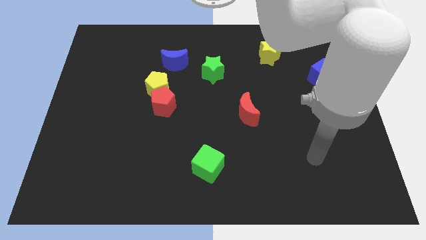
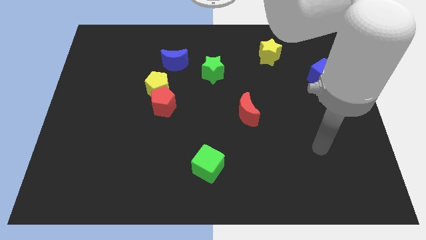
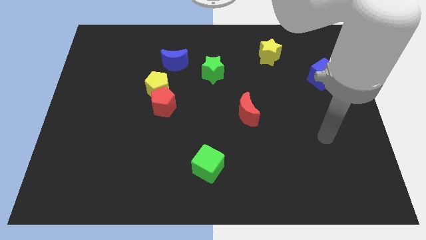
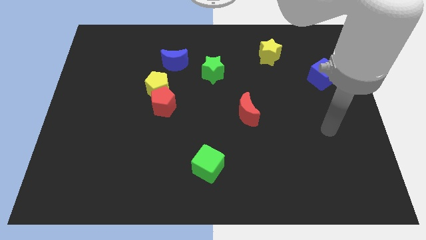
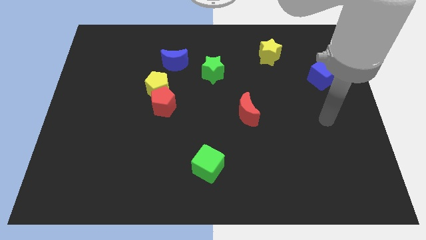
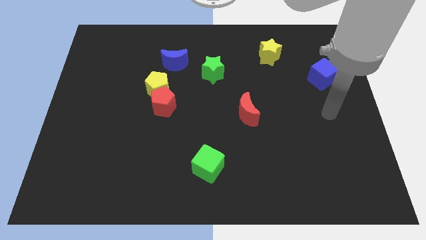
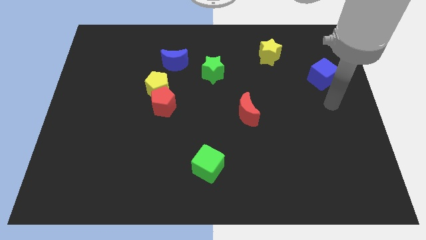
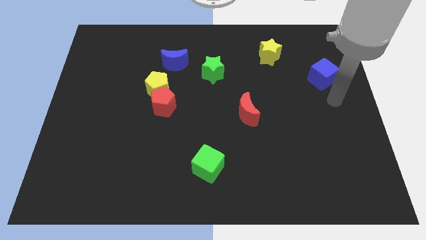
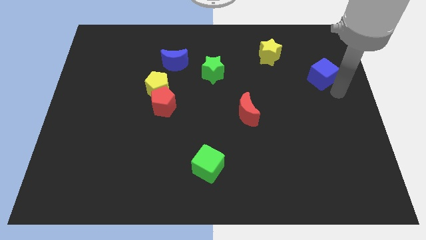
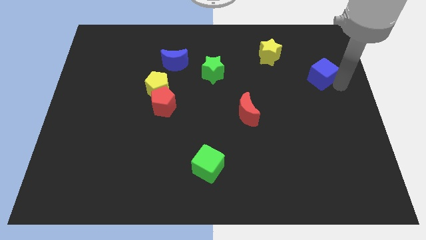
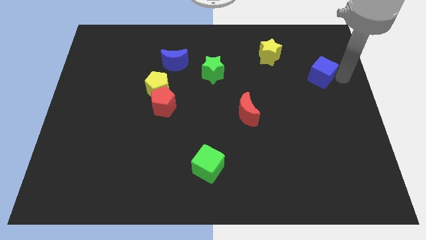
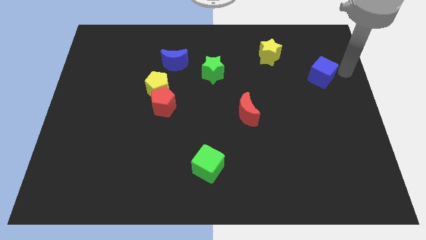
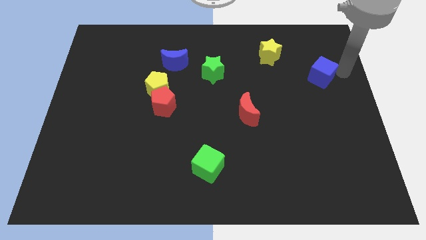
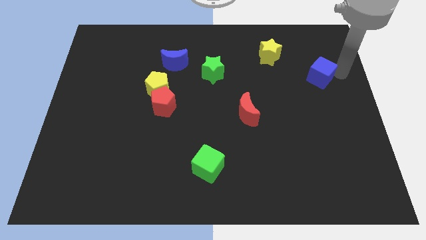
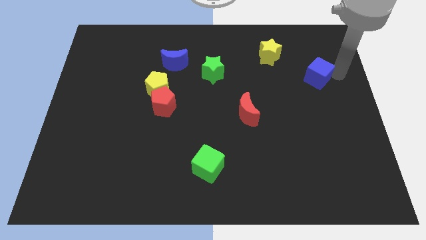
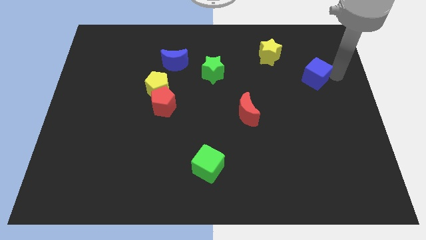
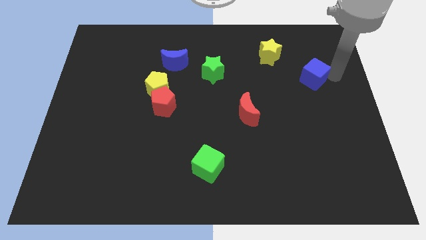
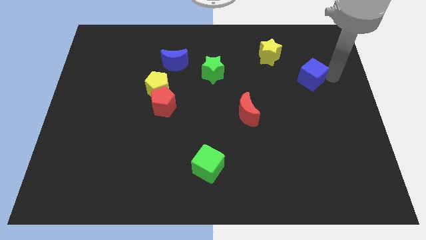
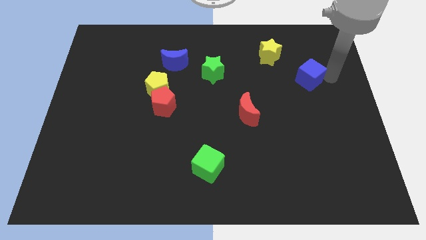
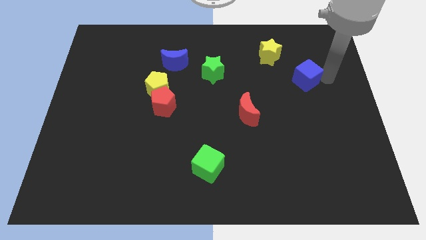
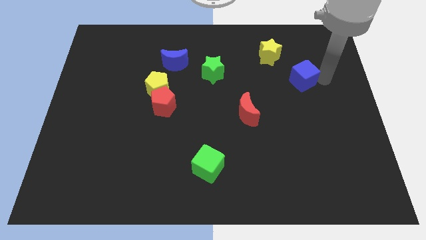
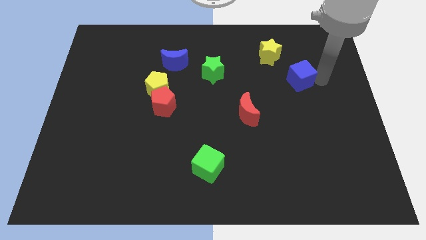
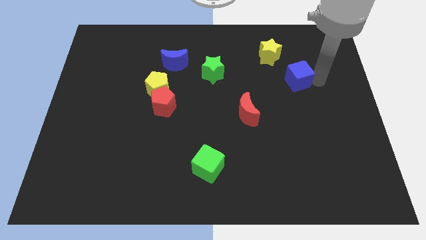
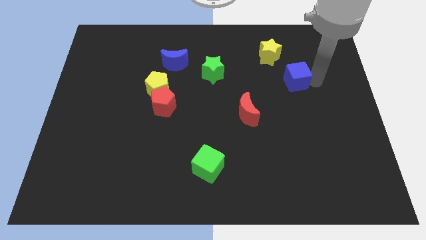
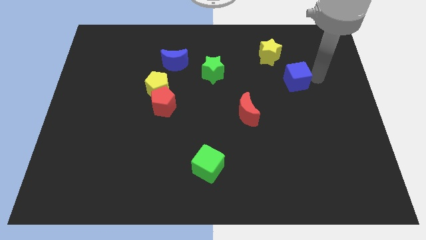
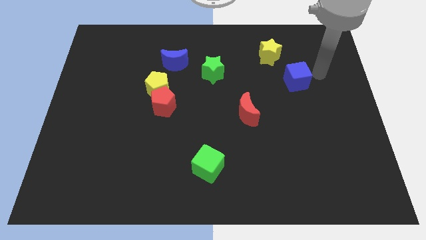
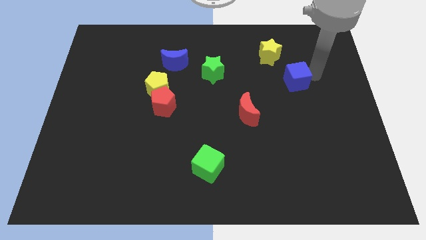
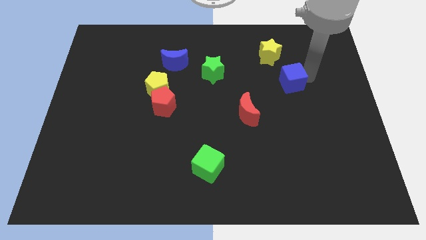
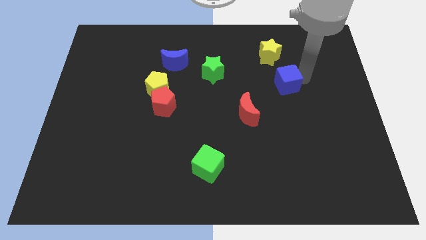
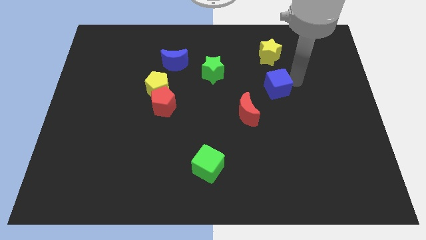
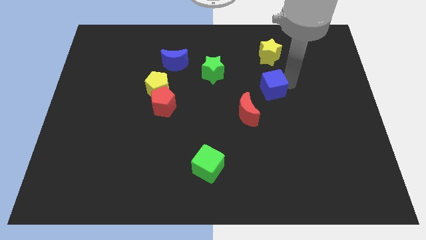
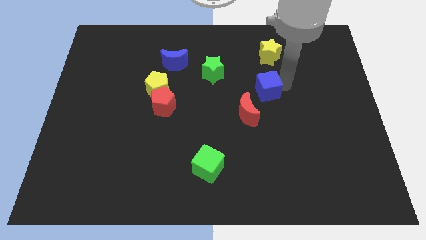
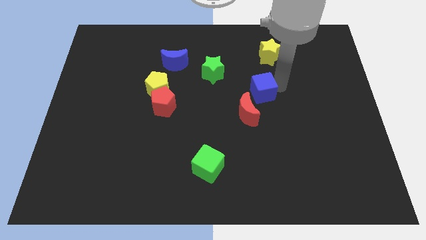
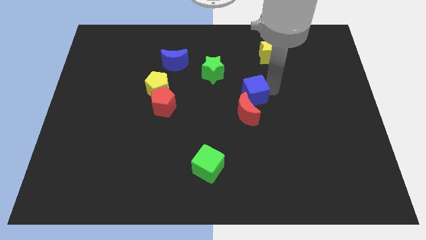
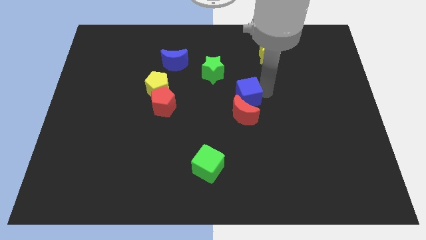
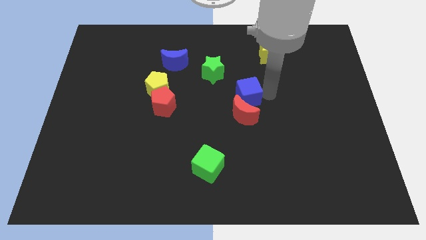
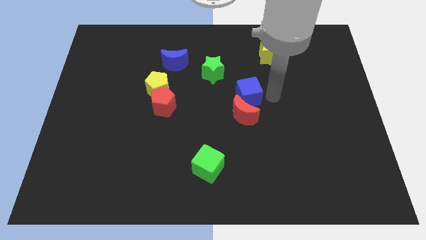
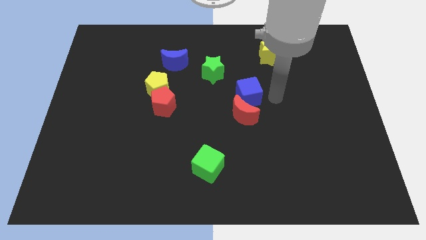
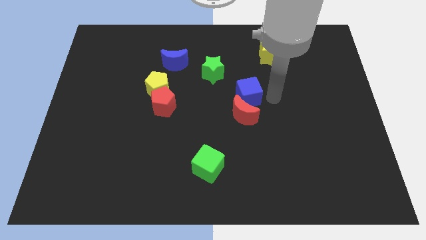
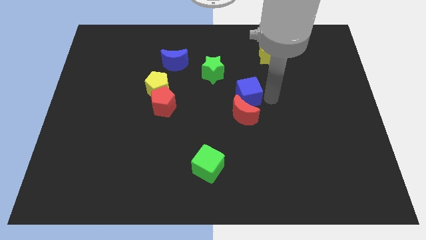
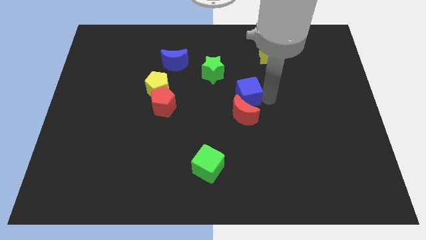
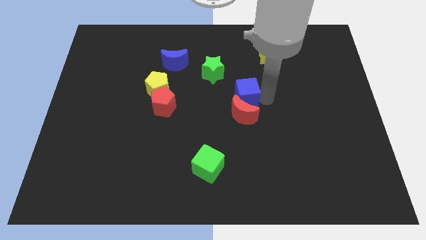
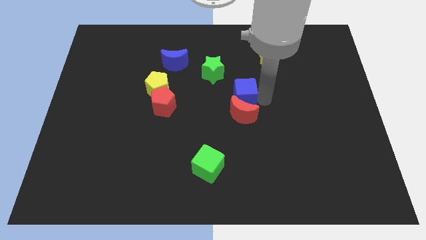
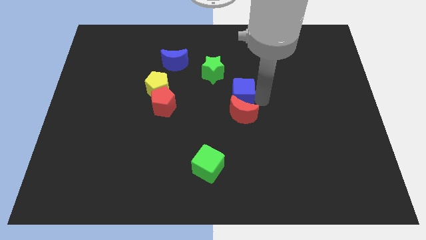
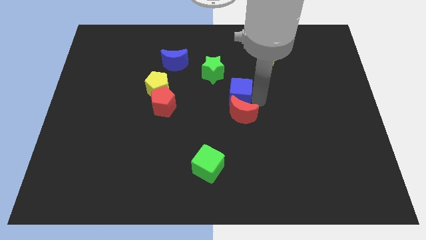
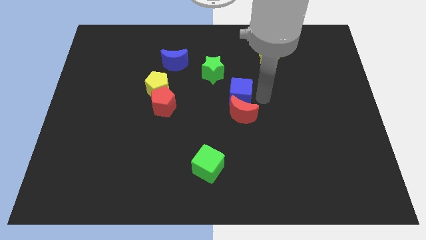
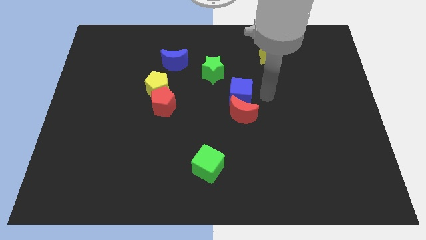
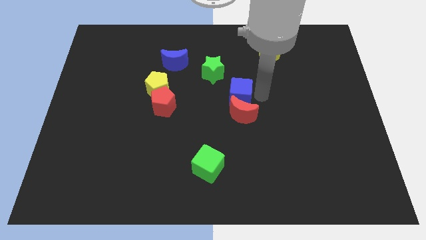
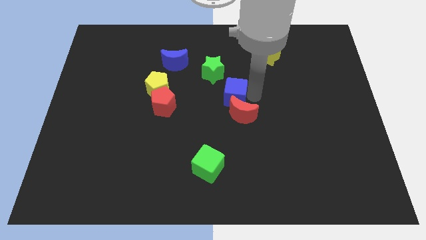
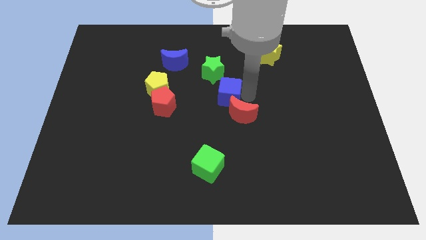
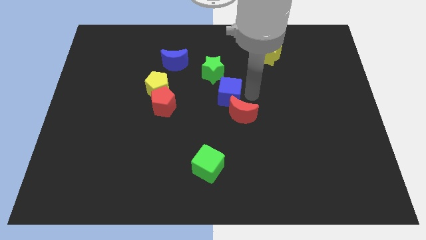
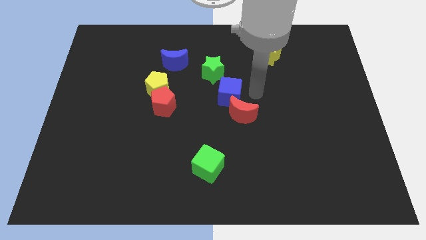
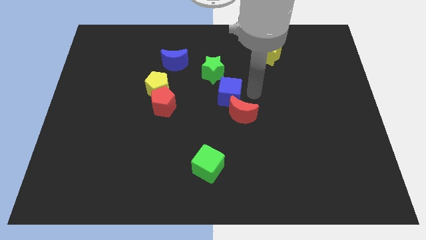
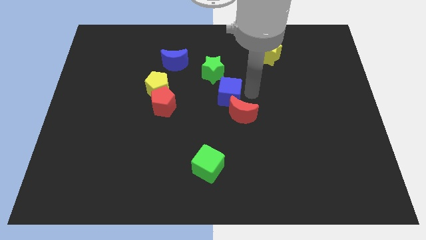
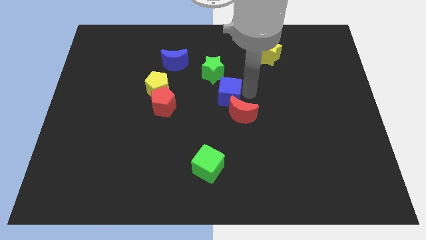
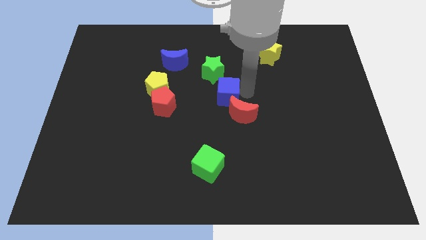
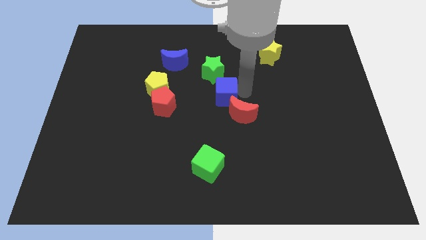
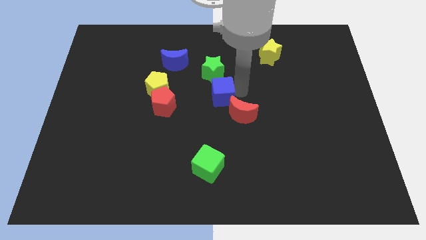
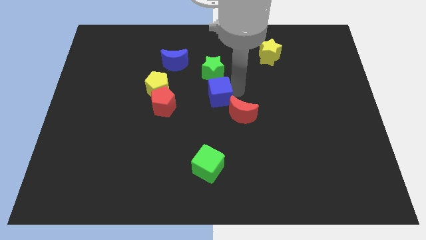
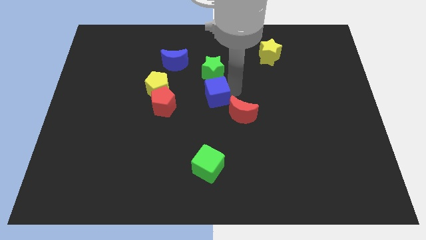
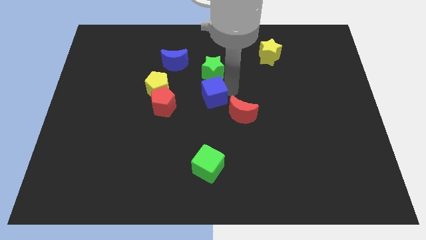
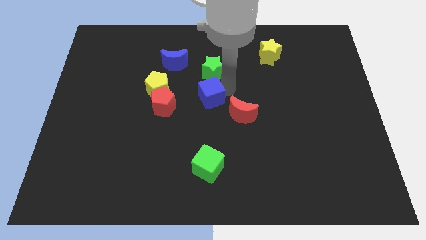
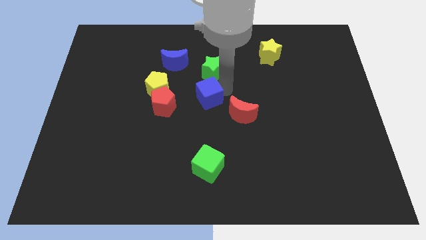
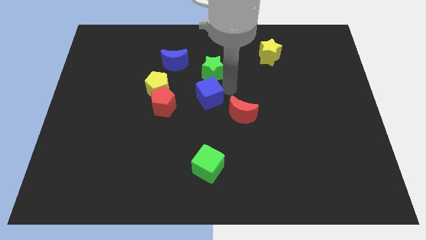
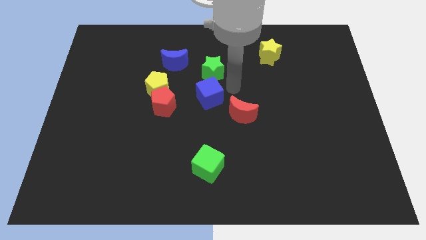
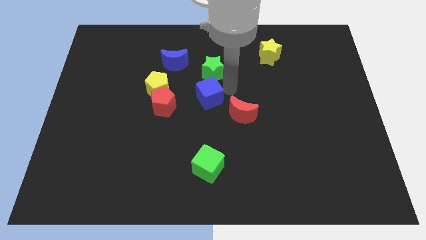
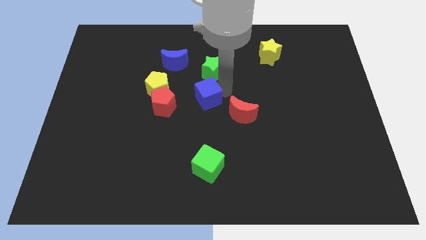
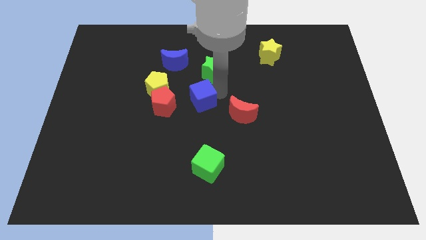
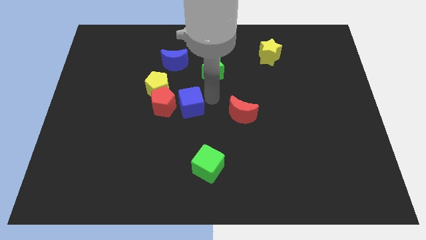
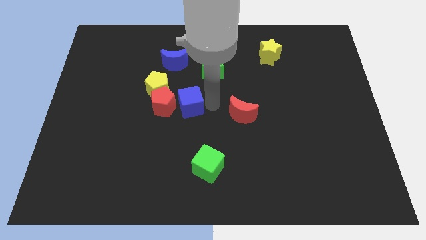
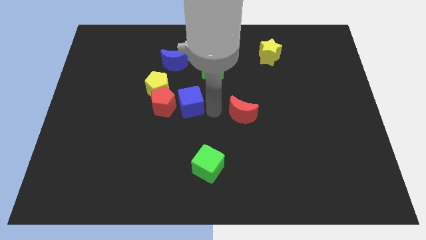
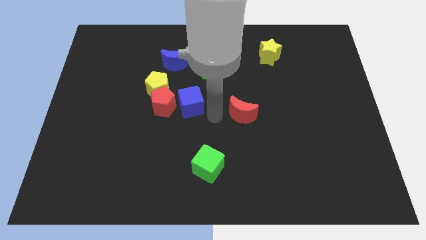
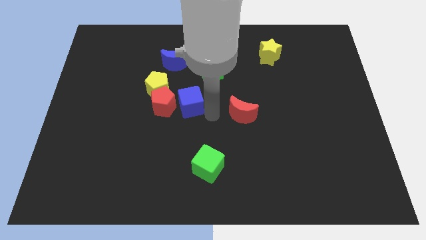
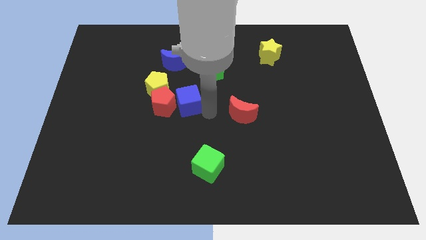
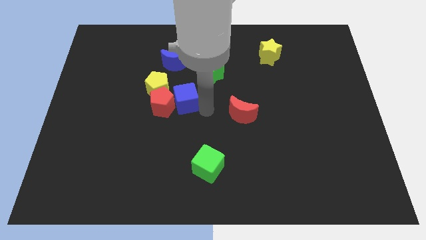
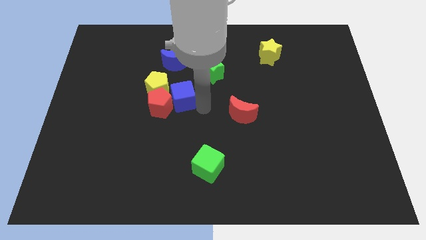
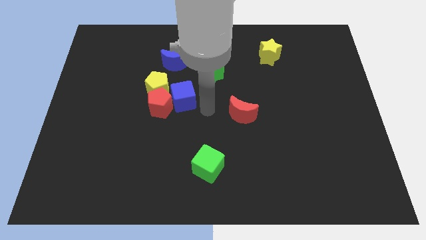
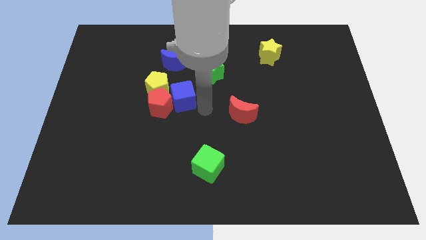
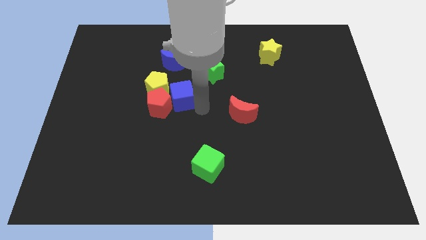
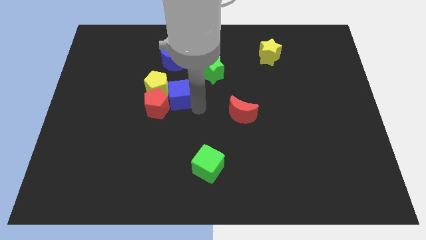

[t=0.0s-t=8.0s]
push the blue cube to the yellow pentagon
